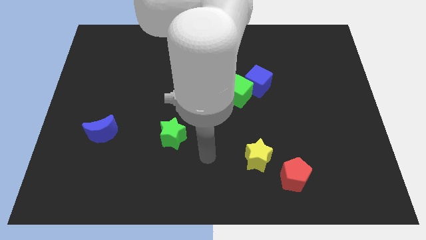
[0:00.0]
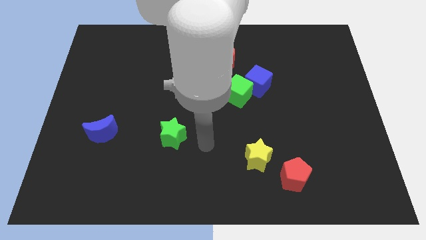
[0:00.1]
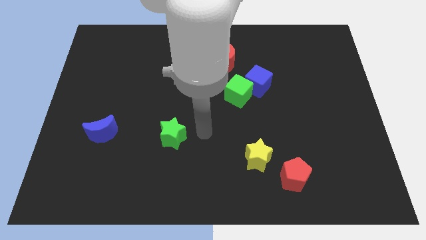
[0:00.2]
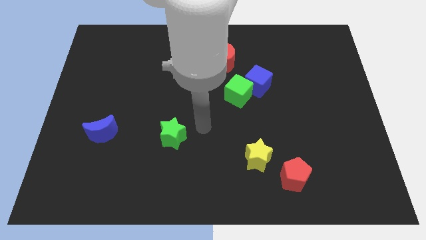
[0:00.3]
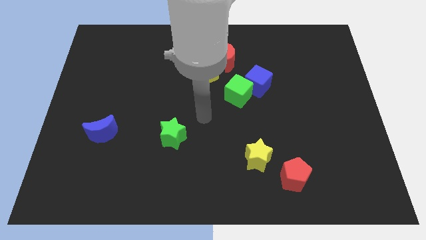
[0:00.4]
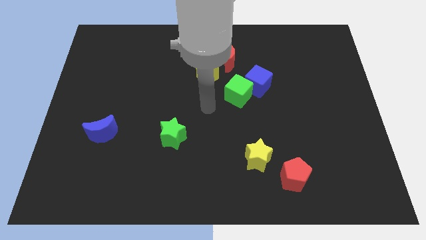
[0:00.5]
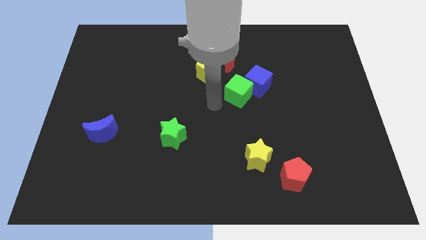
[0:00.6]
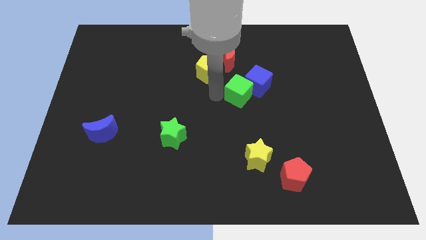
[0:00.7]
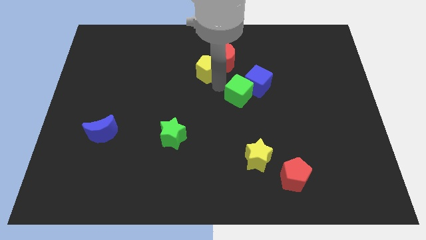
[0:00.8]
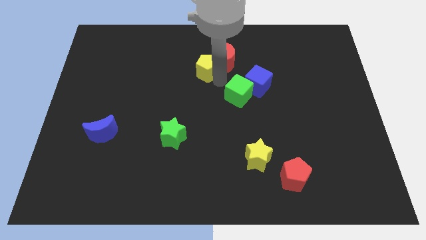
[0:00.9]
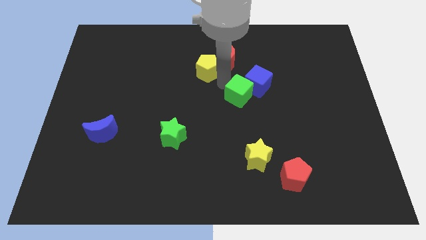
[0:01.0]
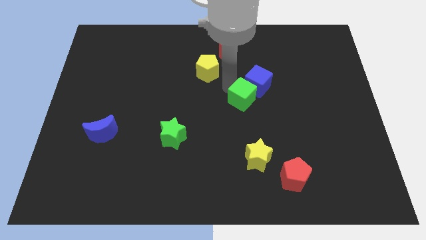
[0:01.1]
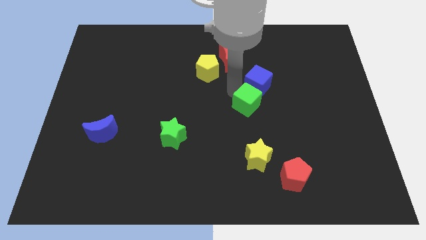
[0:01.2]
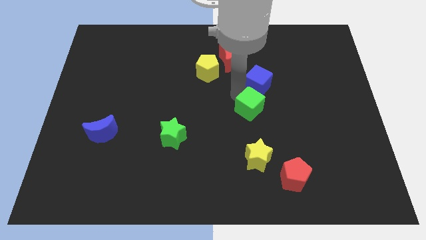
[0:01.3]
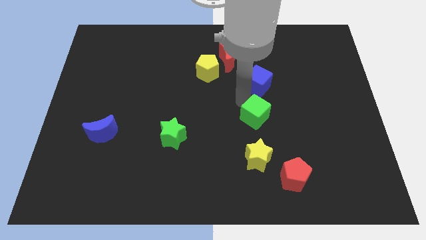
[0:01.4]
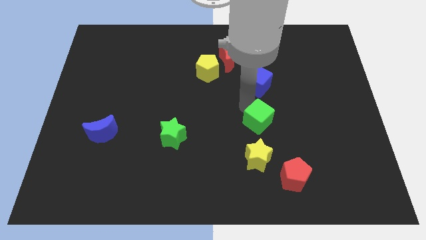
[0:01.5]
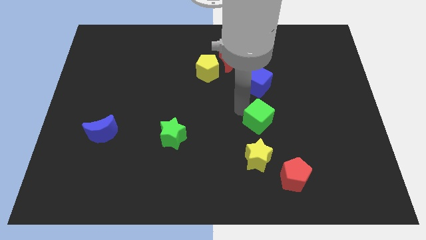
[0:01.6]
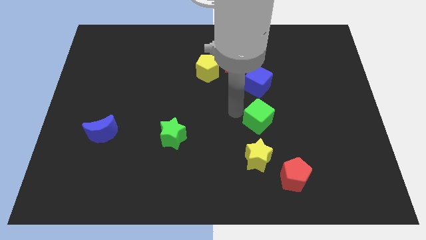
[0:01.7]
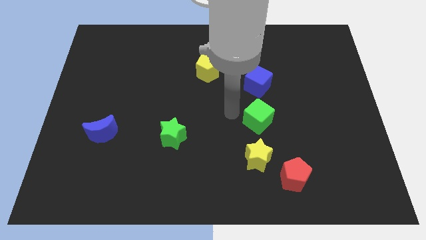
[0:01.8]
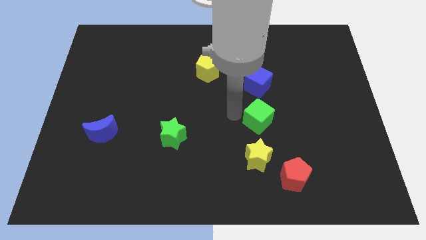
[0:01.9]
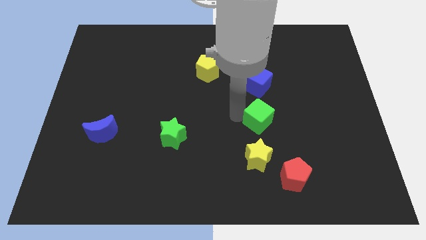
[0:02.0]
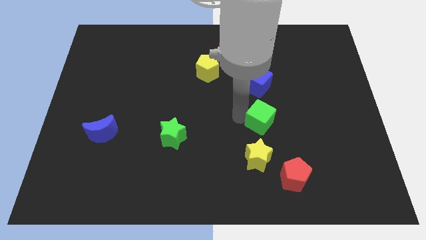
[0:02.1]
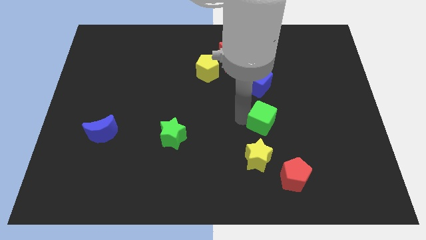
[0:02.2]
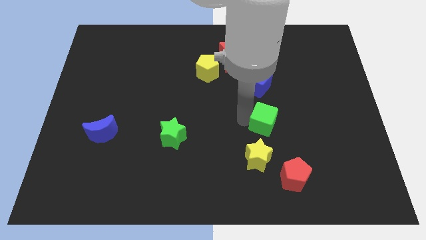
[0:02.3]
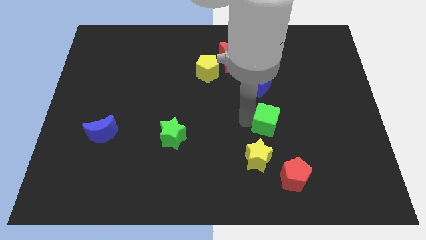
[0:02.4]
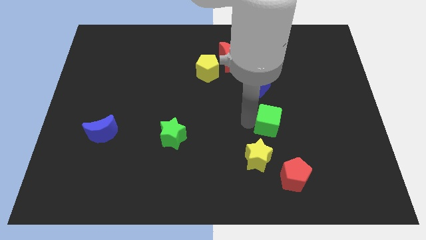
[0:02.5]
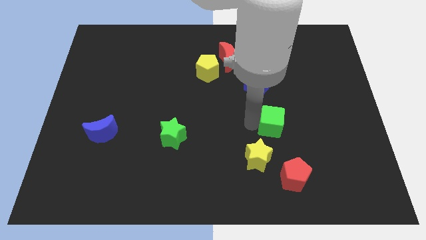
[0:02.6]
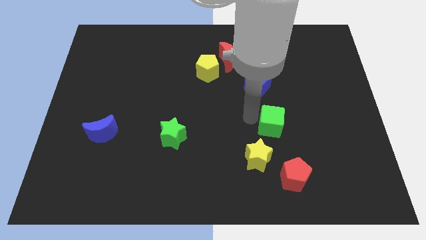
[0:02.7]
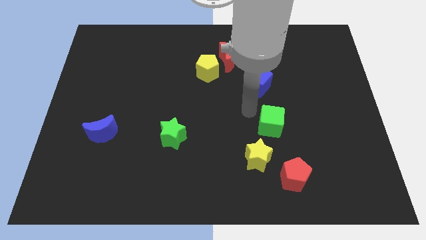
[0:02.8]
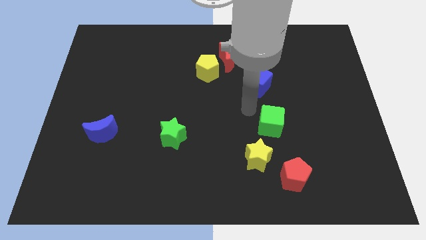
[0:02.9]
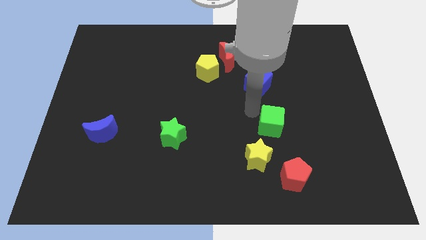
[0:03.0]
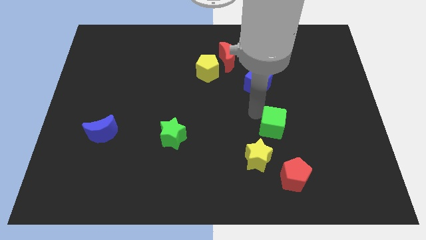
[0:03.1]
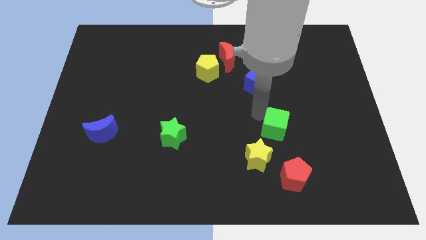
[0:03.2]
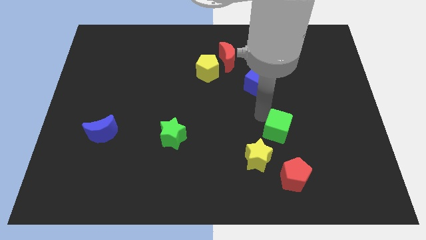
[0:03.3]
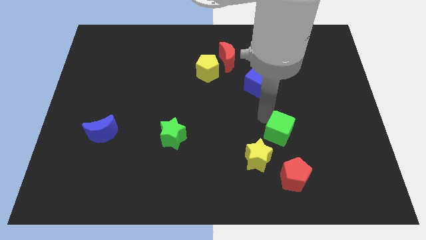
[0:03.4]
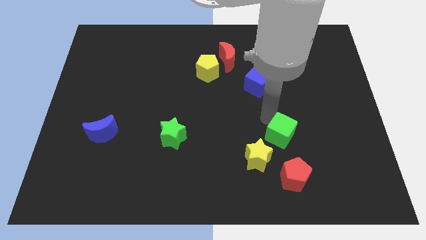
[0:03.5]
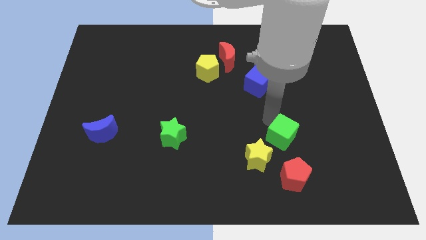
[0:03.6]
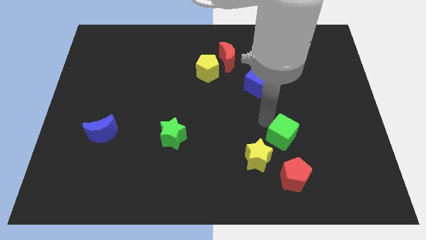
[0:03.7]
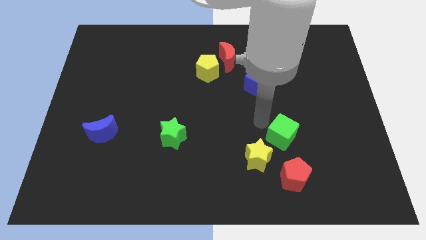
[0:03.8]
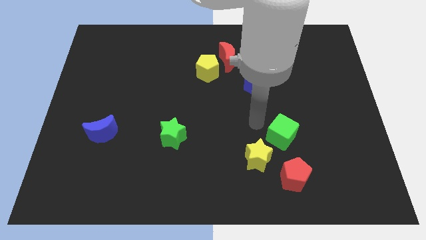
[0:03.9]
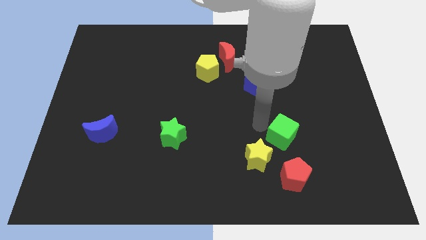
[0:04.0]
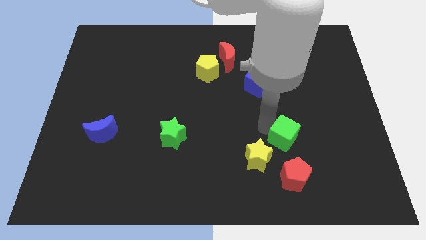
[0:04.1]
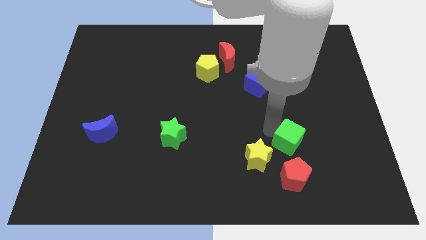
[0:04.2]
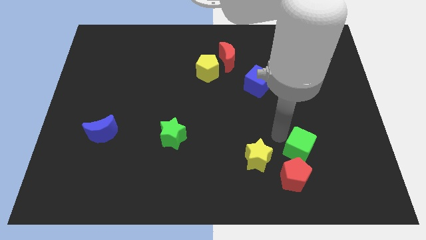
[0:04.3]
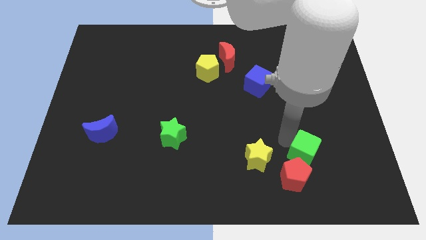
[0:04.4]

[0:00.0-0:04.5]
slide the green cube downwards and to the right diagonally

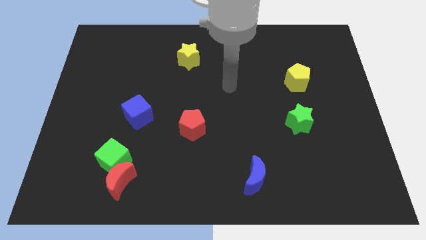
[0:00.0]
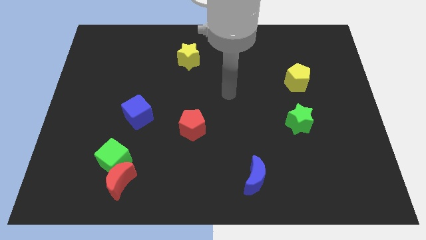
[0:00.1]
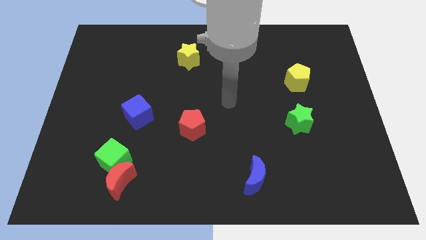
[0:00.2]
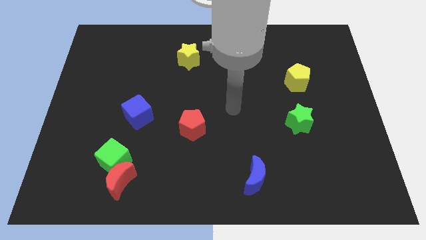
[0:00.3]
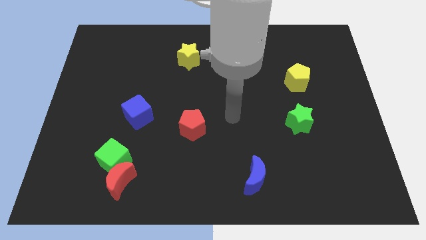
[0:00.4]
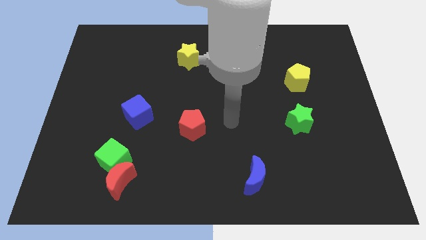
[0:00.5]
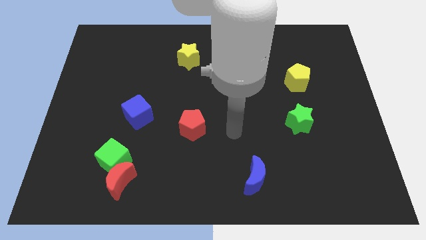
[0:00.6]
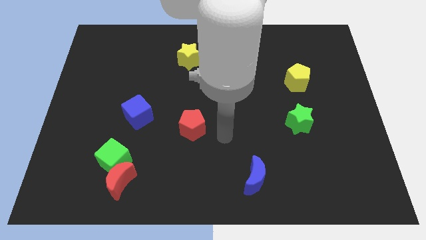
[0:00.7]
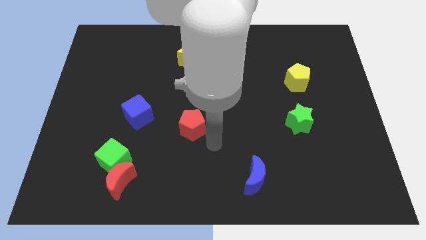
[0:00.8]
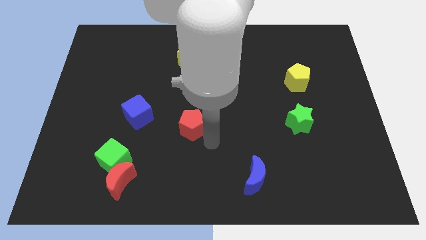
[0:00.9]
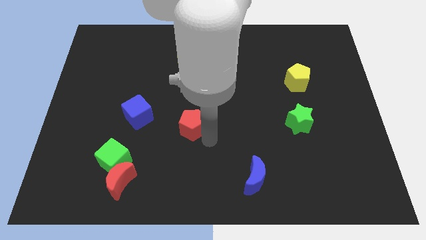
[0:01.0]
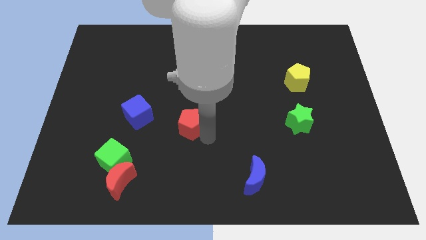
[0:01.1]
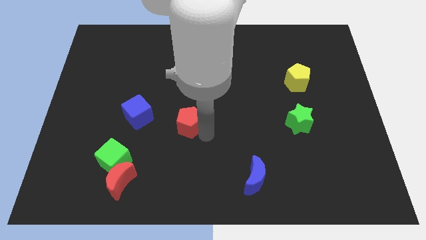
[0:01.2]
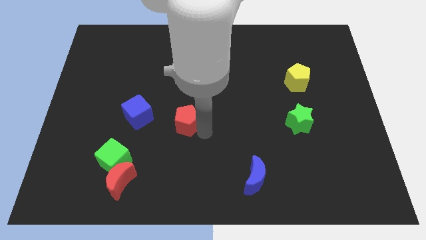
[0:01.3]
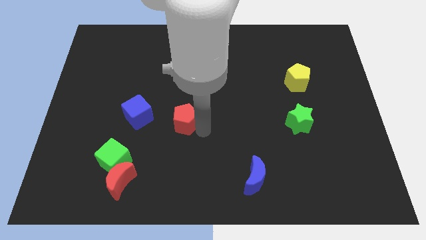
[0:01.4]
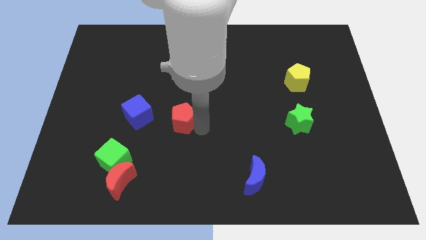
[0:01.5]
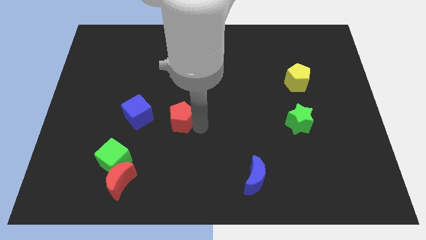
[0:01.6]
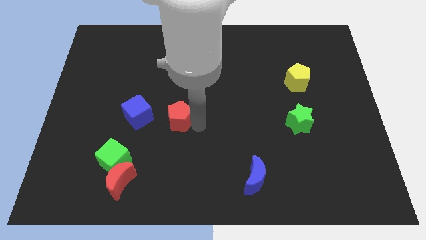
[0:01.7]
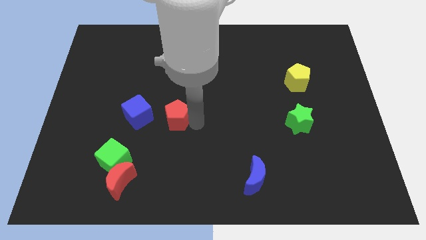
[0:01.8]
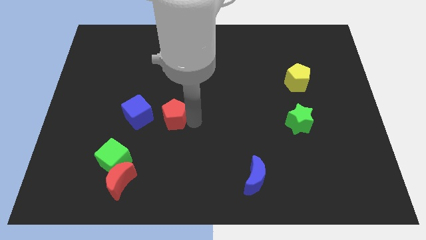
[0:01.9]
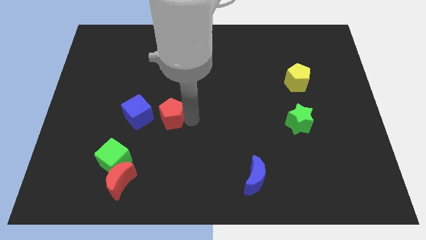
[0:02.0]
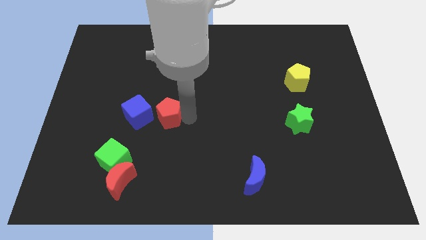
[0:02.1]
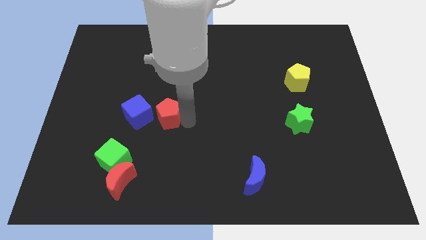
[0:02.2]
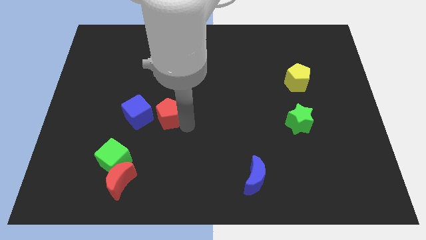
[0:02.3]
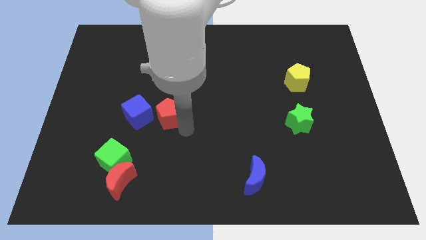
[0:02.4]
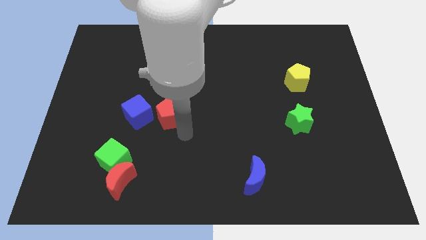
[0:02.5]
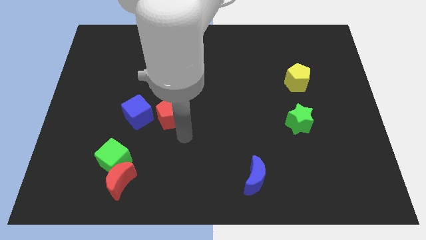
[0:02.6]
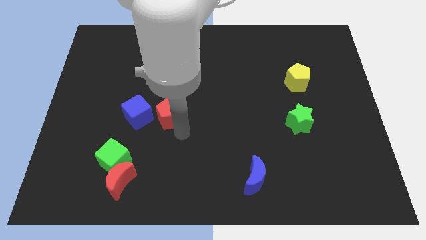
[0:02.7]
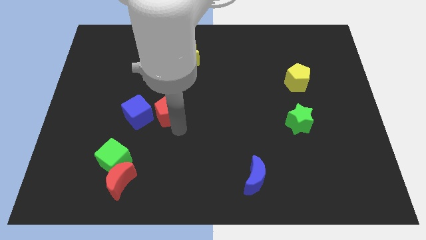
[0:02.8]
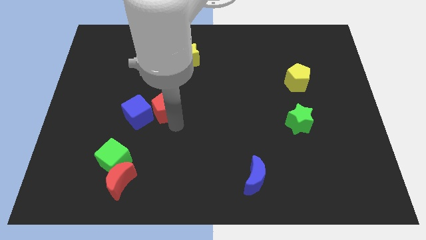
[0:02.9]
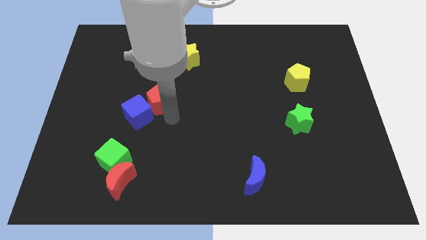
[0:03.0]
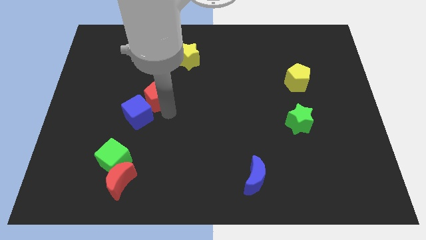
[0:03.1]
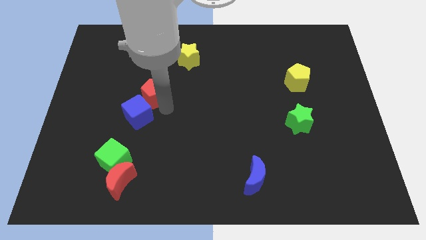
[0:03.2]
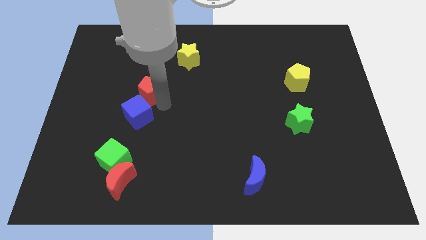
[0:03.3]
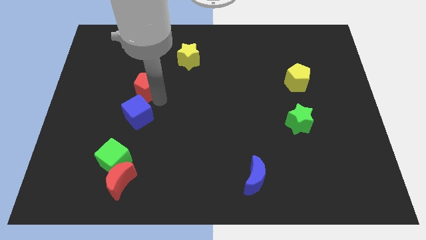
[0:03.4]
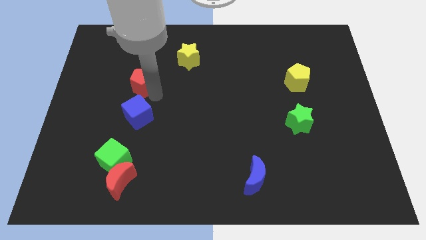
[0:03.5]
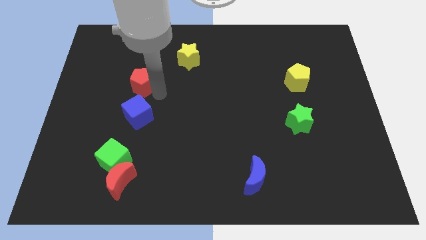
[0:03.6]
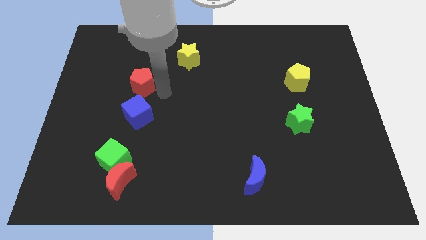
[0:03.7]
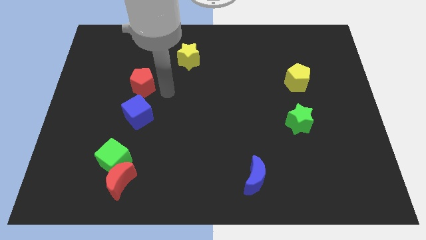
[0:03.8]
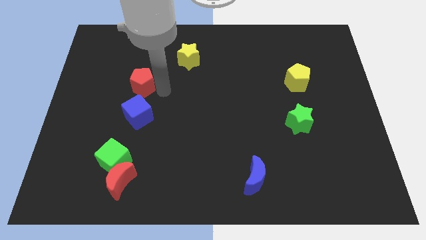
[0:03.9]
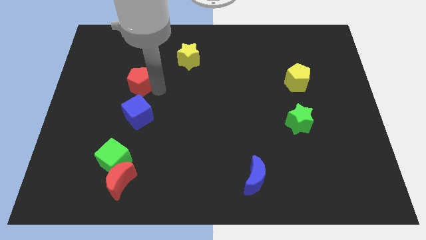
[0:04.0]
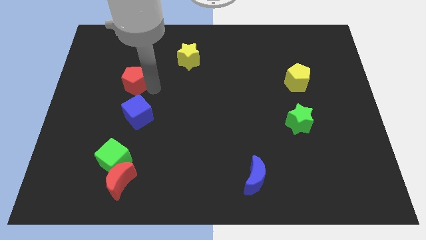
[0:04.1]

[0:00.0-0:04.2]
push the red pentagon up and left diagonally
